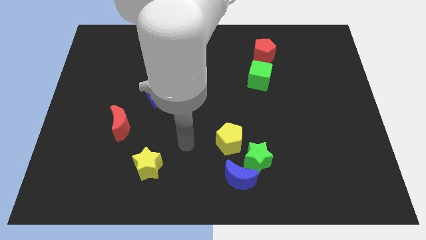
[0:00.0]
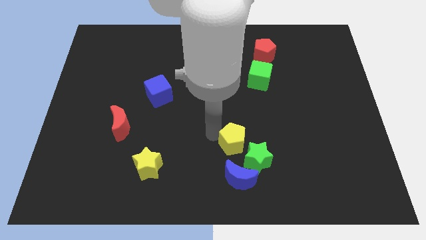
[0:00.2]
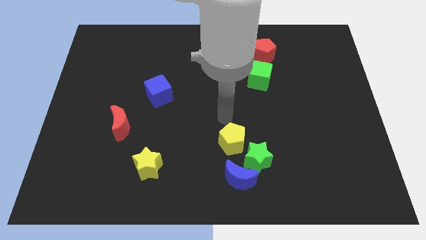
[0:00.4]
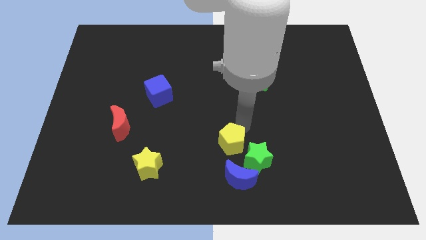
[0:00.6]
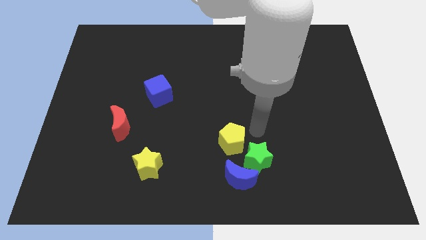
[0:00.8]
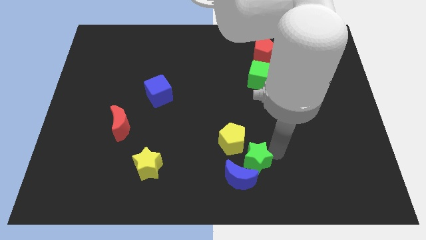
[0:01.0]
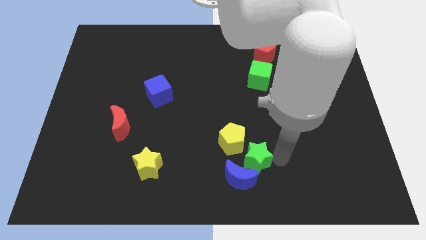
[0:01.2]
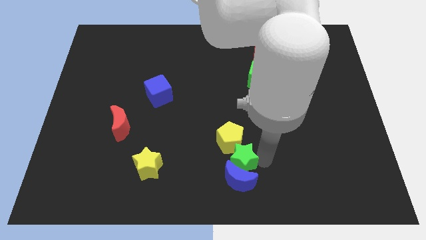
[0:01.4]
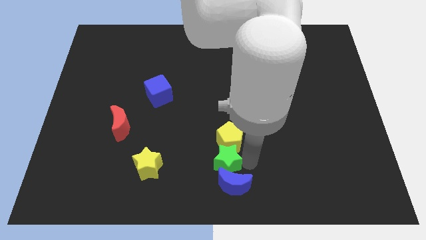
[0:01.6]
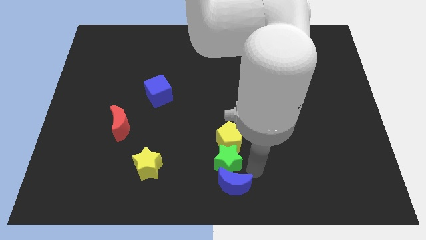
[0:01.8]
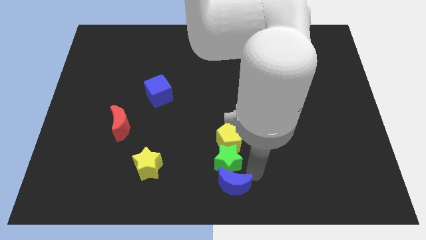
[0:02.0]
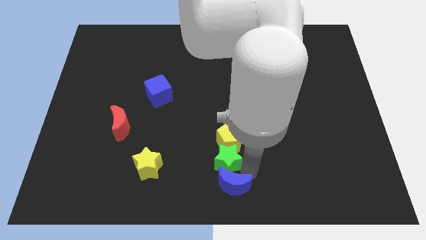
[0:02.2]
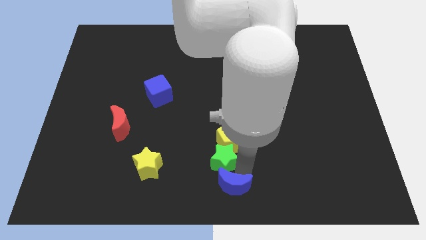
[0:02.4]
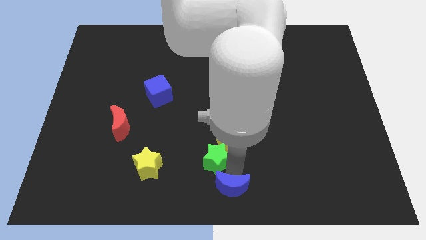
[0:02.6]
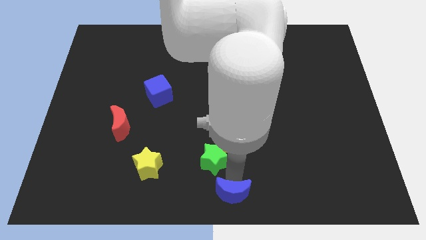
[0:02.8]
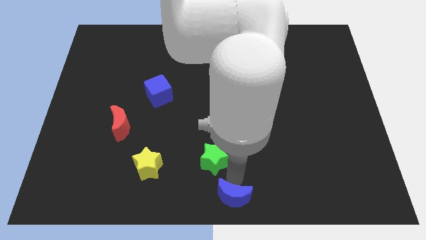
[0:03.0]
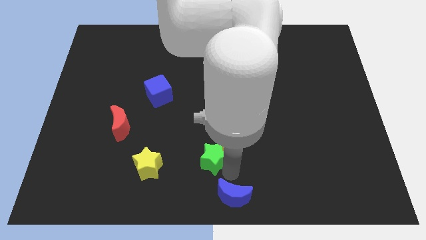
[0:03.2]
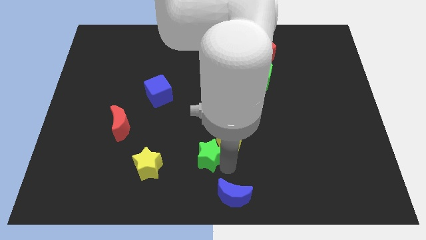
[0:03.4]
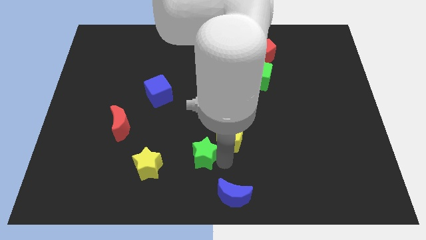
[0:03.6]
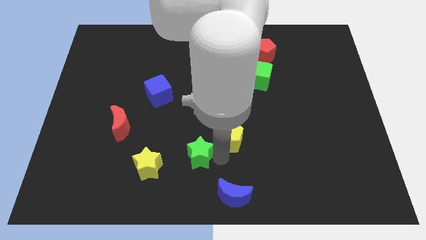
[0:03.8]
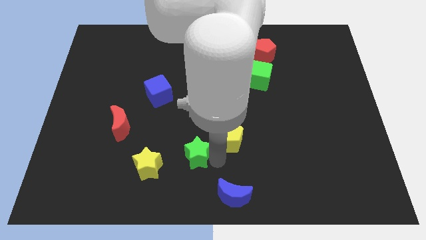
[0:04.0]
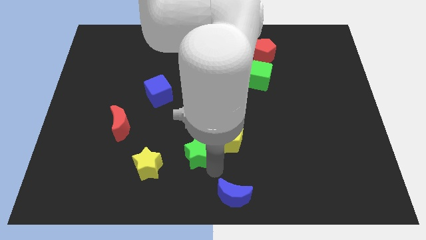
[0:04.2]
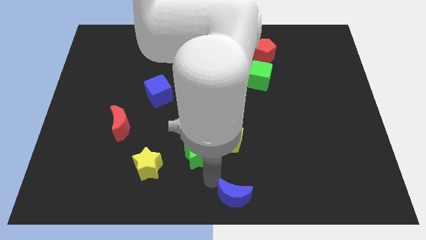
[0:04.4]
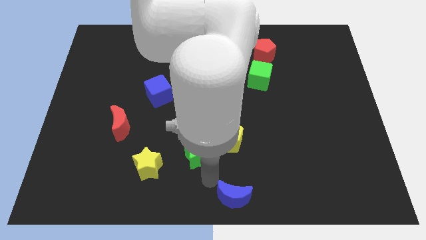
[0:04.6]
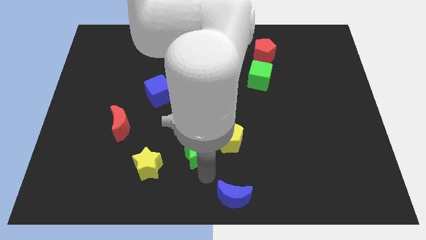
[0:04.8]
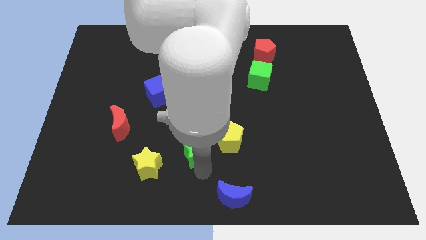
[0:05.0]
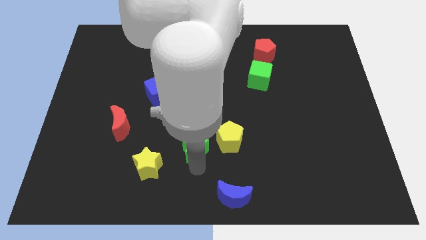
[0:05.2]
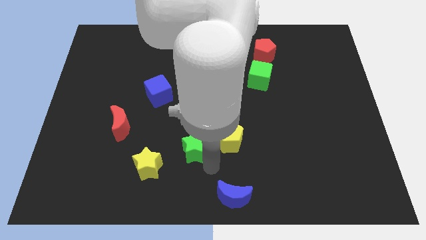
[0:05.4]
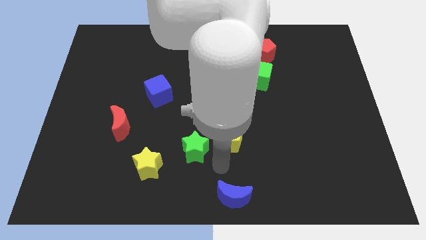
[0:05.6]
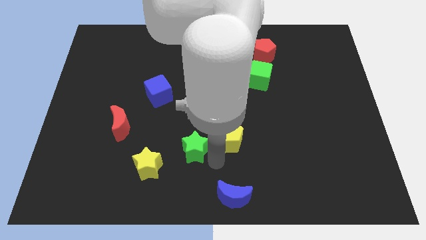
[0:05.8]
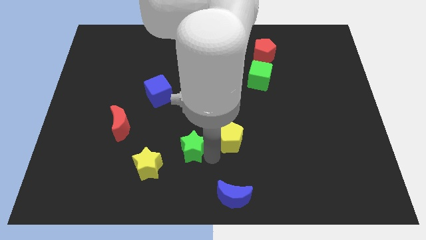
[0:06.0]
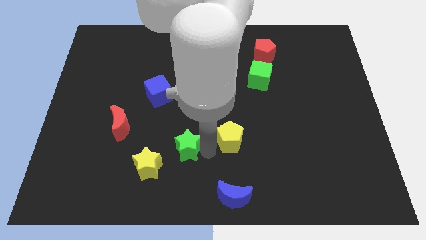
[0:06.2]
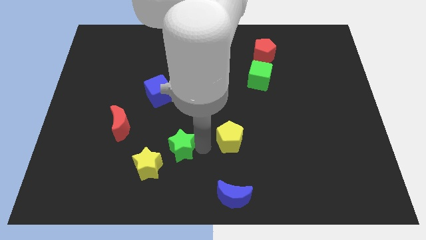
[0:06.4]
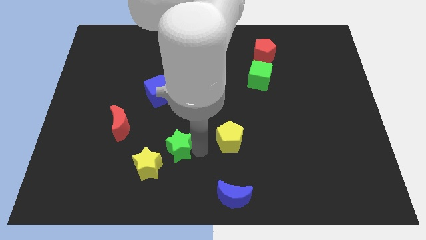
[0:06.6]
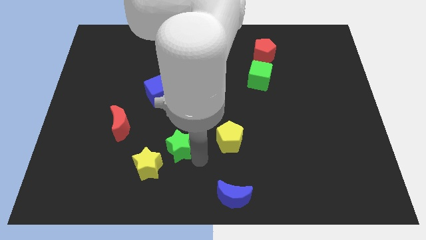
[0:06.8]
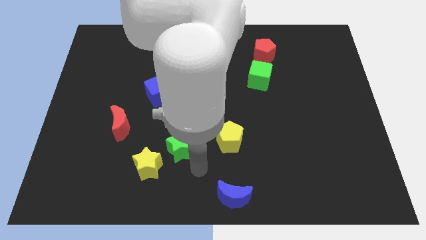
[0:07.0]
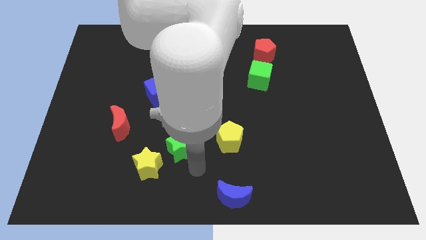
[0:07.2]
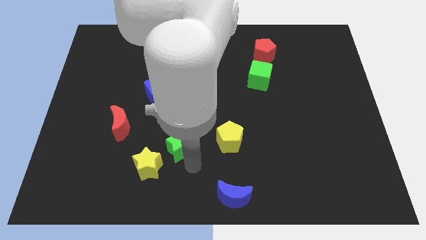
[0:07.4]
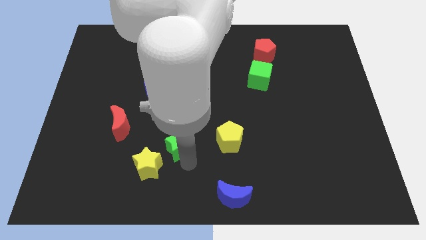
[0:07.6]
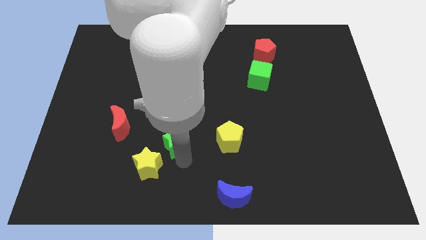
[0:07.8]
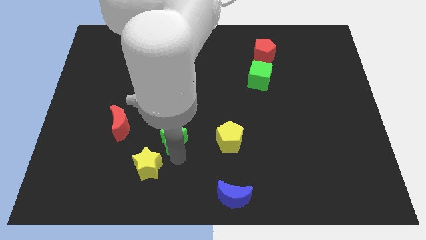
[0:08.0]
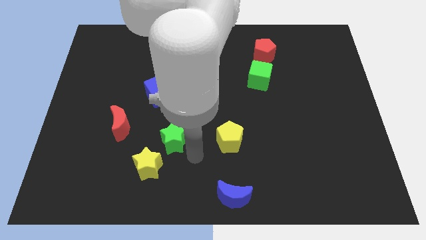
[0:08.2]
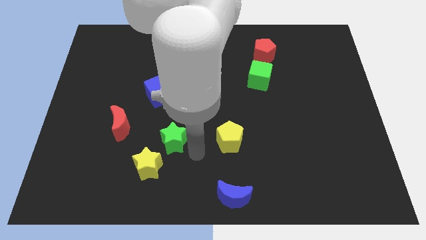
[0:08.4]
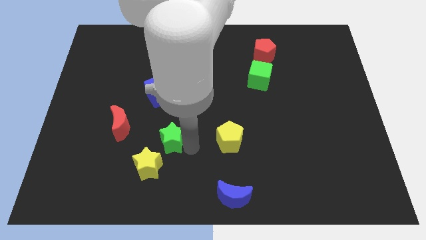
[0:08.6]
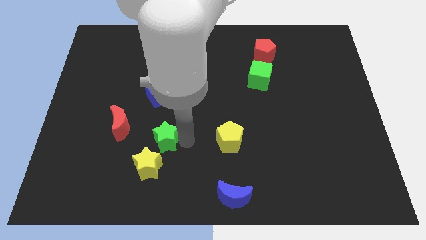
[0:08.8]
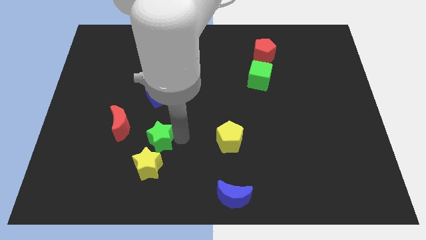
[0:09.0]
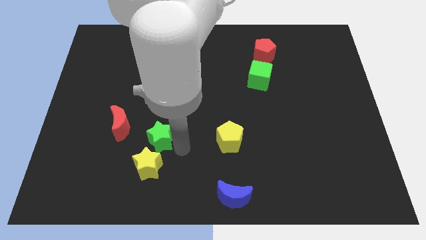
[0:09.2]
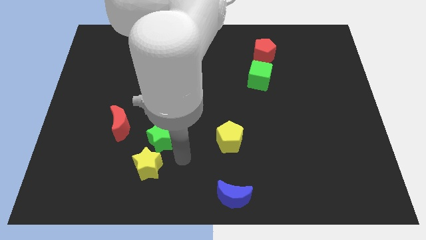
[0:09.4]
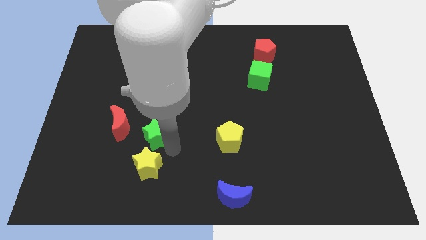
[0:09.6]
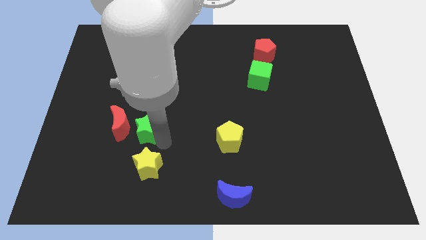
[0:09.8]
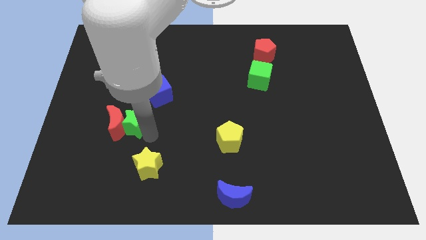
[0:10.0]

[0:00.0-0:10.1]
put the green star diagonally down and to the left of the blue cube

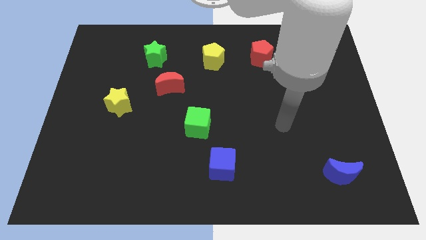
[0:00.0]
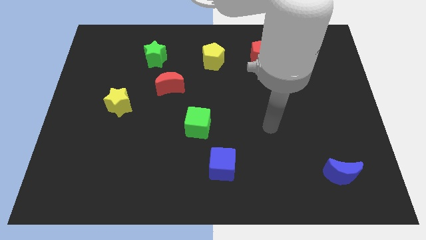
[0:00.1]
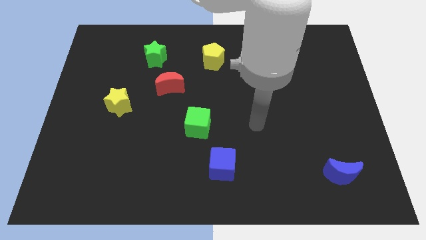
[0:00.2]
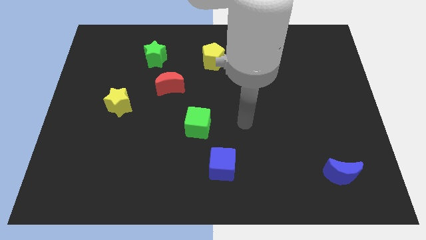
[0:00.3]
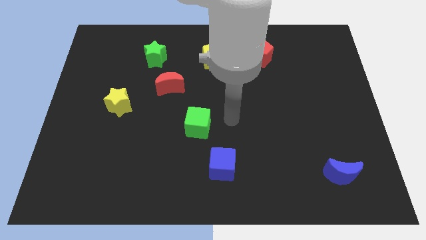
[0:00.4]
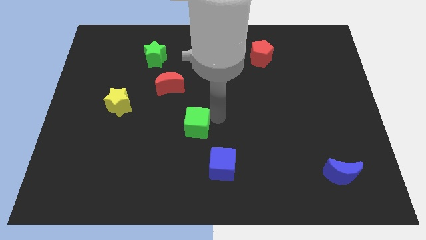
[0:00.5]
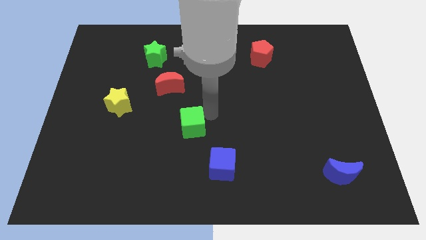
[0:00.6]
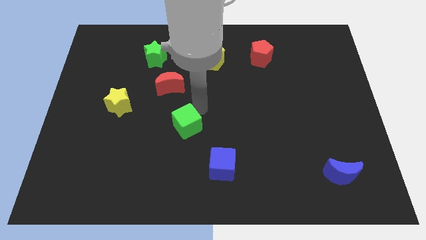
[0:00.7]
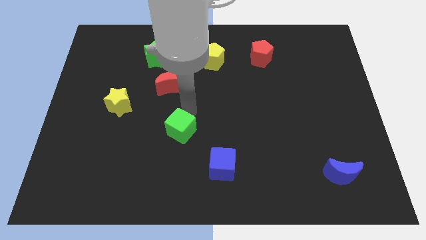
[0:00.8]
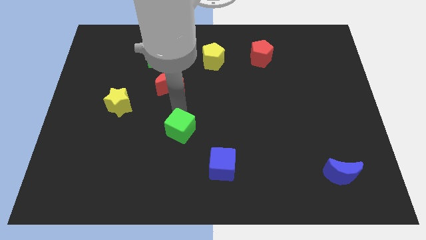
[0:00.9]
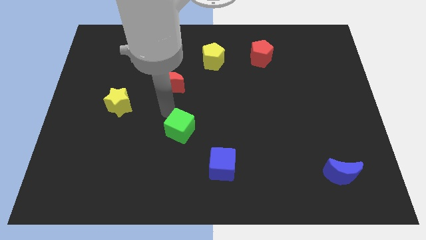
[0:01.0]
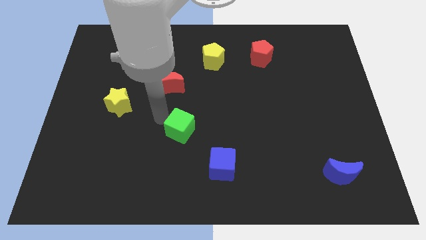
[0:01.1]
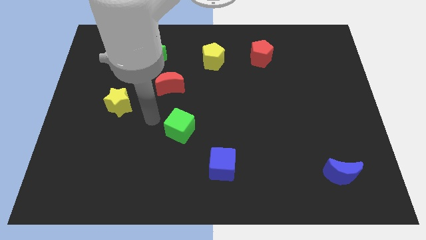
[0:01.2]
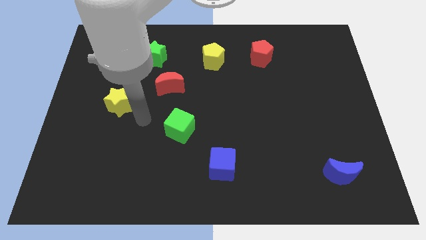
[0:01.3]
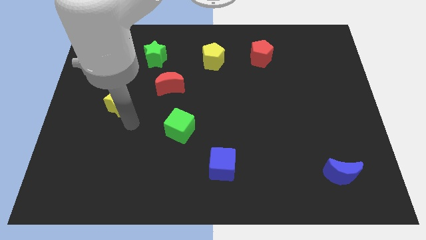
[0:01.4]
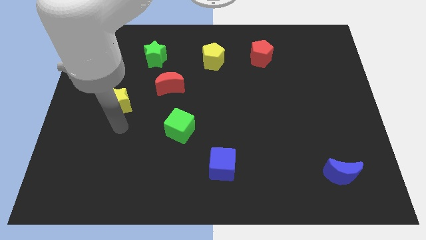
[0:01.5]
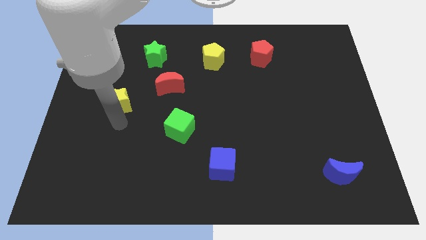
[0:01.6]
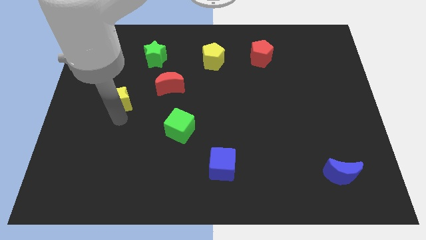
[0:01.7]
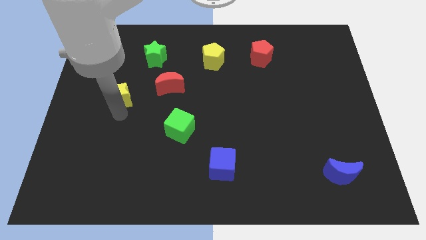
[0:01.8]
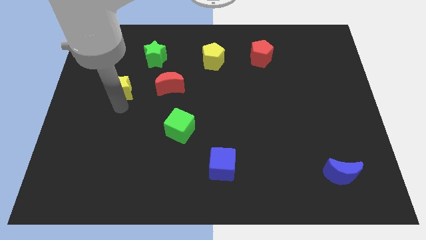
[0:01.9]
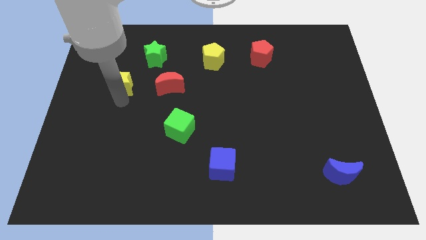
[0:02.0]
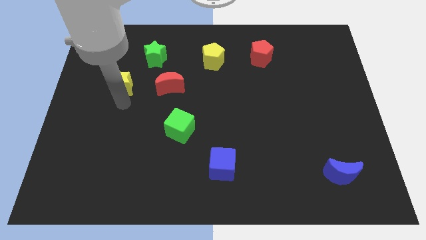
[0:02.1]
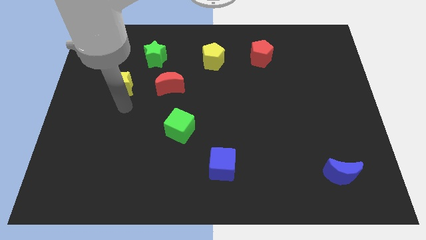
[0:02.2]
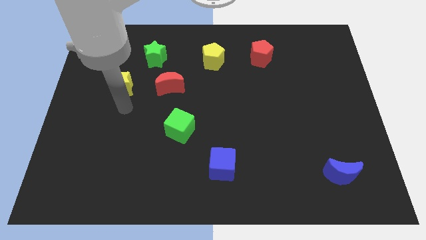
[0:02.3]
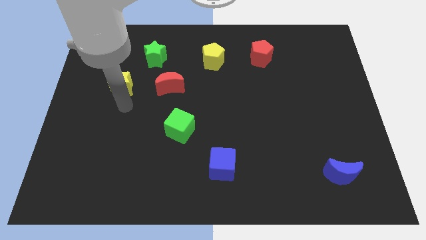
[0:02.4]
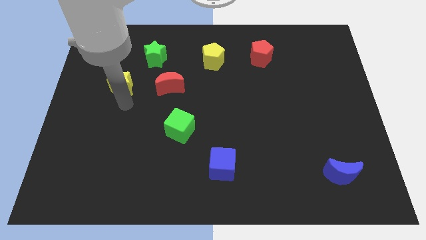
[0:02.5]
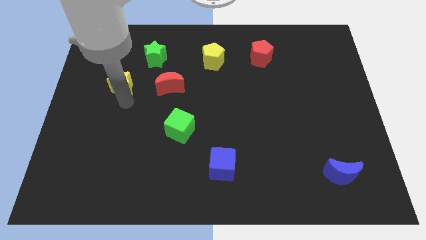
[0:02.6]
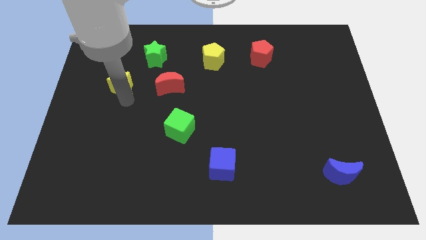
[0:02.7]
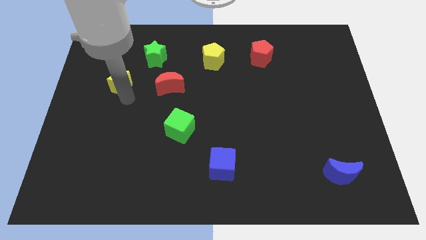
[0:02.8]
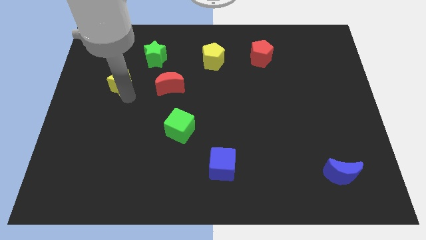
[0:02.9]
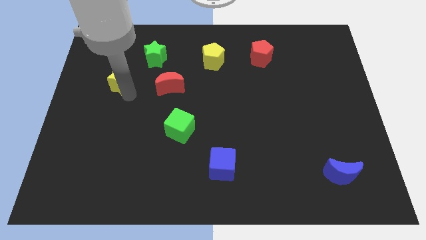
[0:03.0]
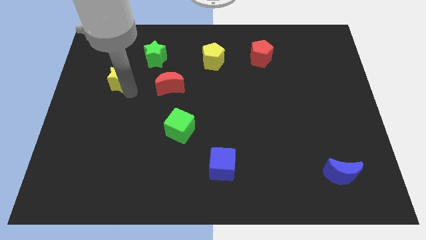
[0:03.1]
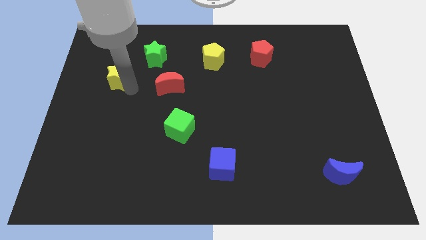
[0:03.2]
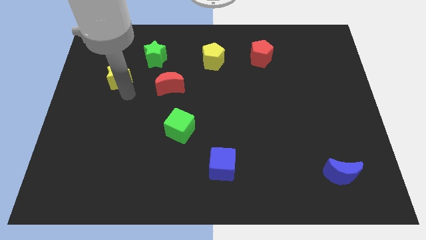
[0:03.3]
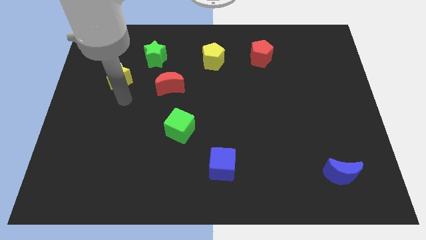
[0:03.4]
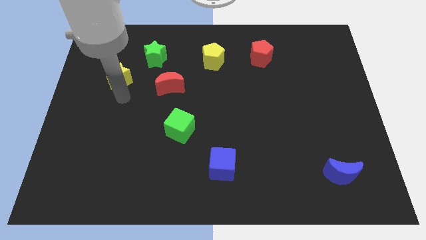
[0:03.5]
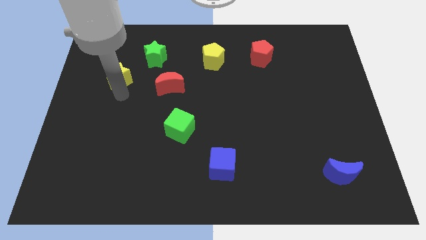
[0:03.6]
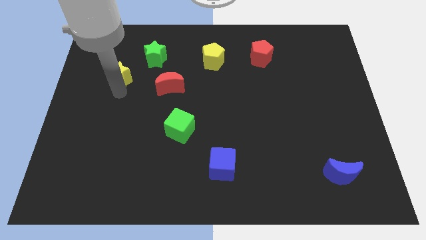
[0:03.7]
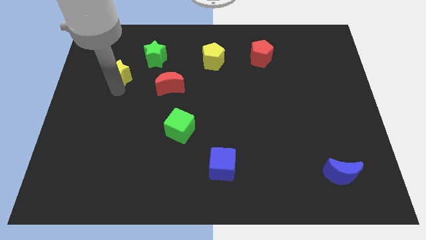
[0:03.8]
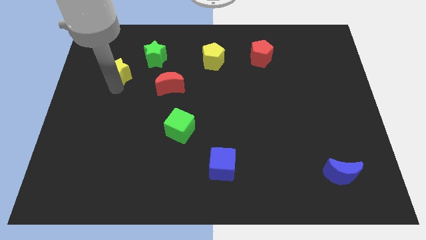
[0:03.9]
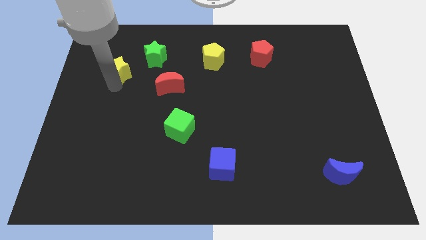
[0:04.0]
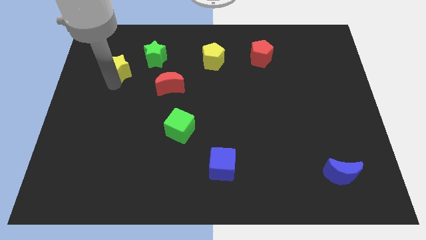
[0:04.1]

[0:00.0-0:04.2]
put the yellow star to the left side of the green star
